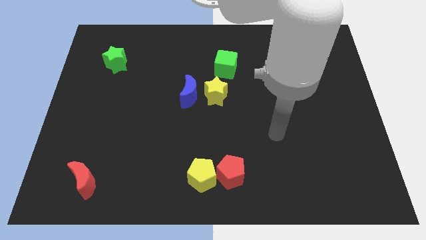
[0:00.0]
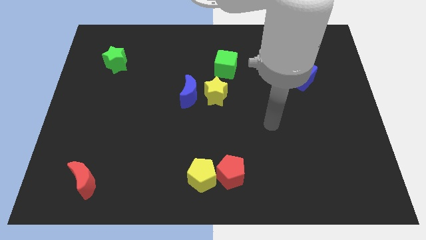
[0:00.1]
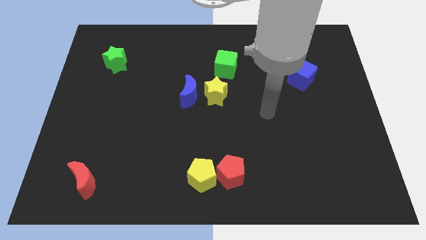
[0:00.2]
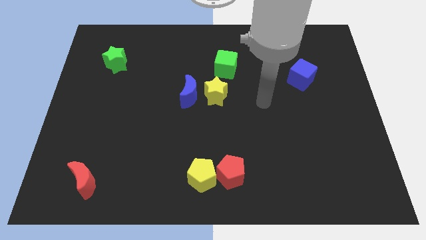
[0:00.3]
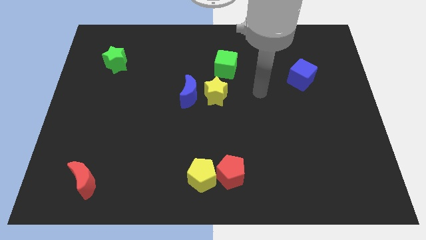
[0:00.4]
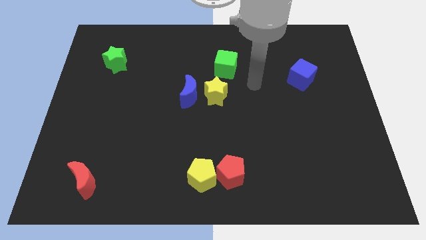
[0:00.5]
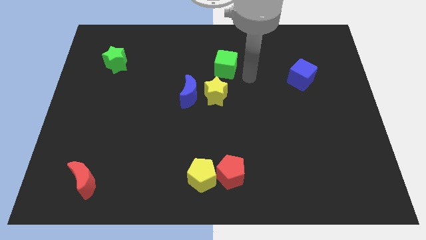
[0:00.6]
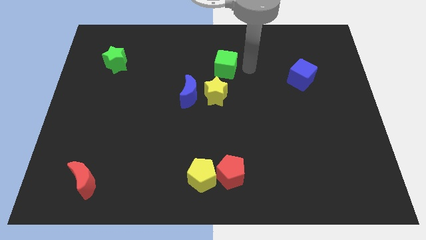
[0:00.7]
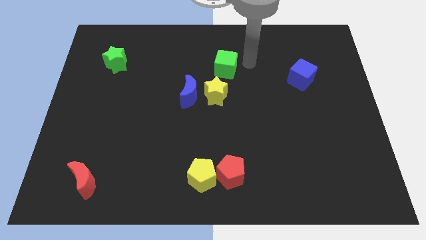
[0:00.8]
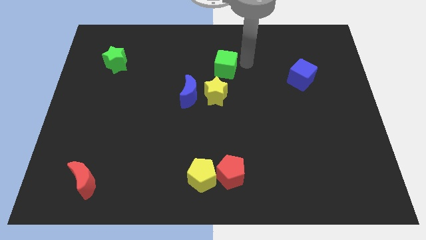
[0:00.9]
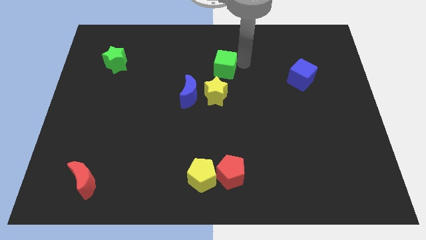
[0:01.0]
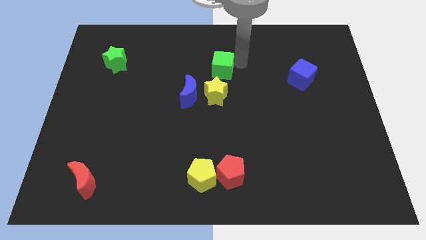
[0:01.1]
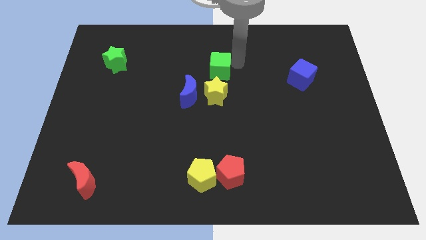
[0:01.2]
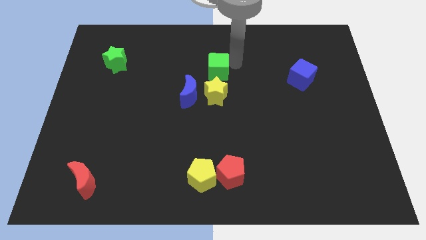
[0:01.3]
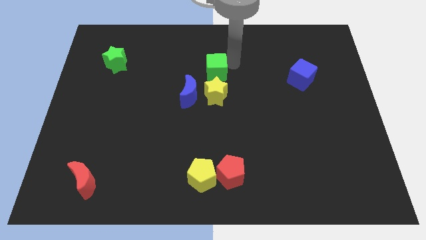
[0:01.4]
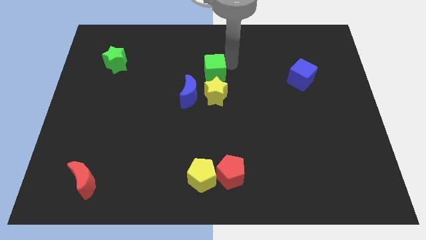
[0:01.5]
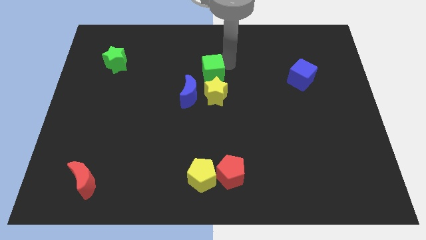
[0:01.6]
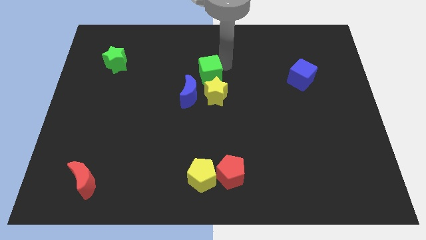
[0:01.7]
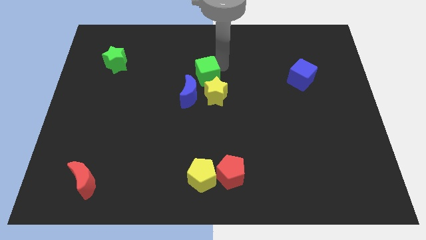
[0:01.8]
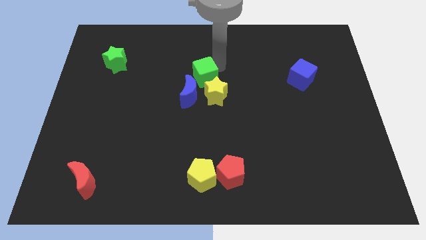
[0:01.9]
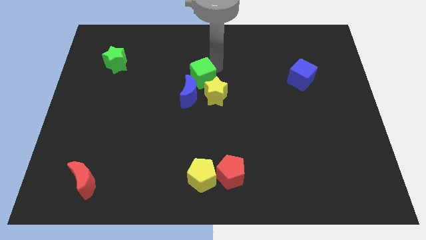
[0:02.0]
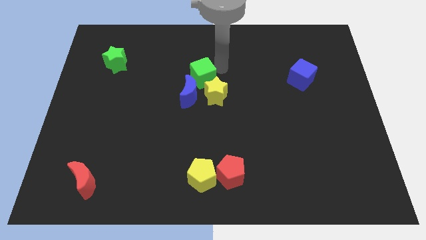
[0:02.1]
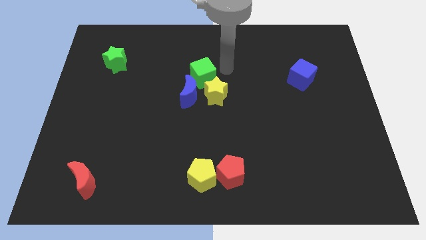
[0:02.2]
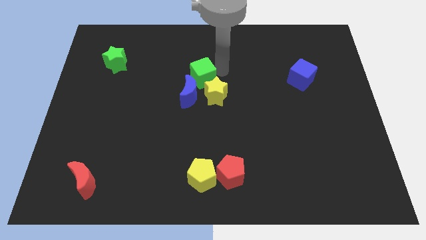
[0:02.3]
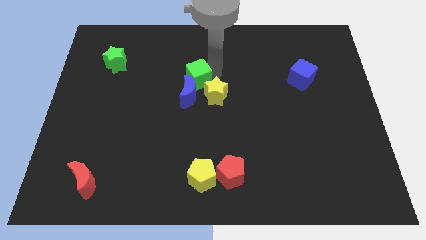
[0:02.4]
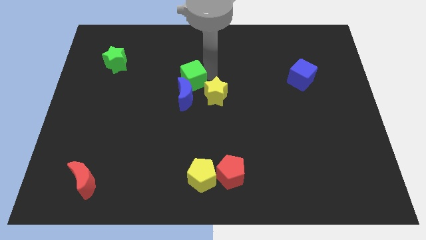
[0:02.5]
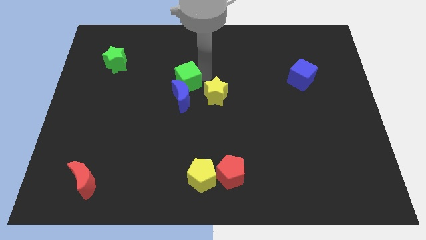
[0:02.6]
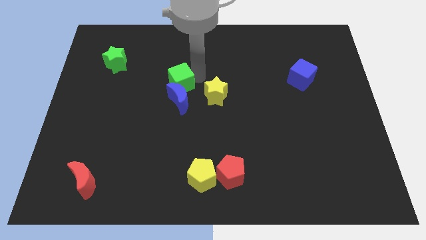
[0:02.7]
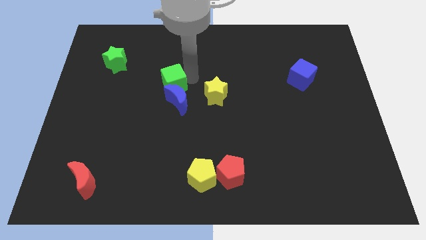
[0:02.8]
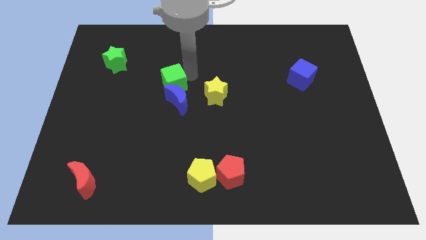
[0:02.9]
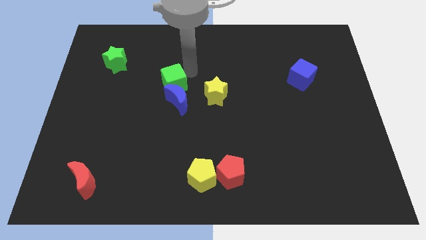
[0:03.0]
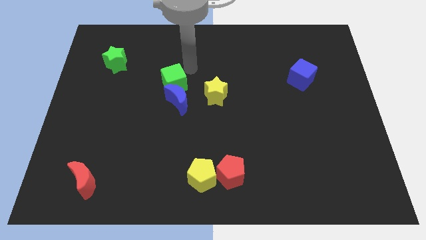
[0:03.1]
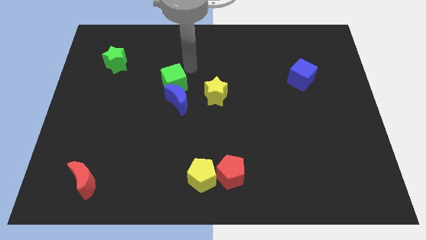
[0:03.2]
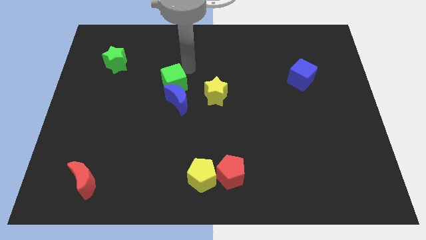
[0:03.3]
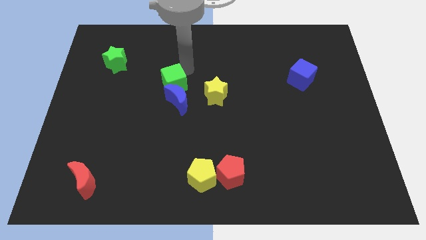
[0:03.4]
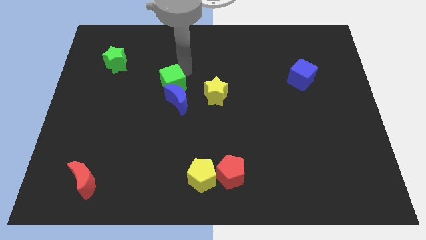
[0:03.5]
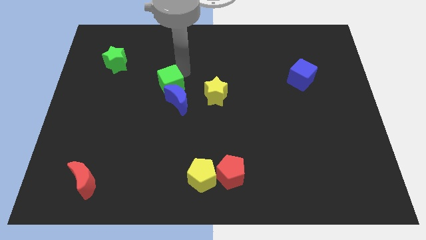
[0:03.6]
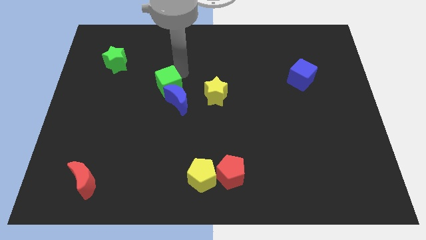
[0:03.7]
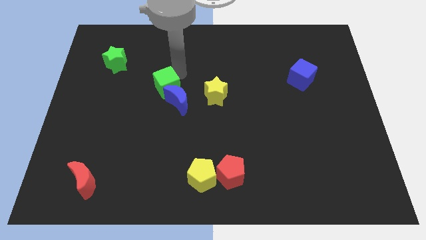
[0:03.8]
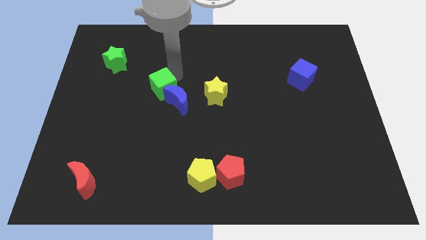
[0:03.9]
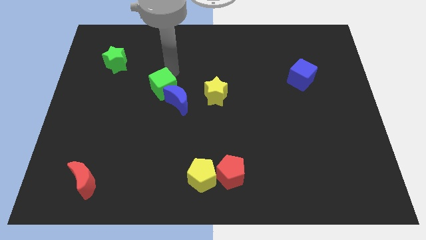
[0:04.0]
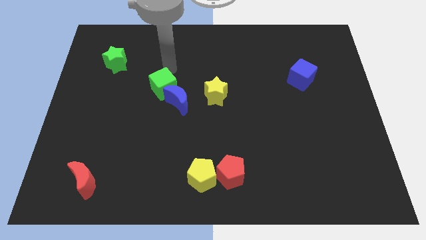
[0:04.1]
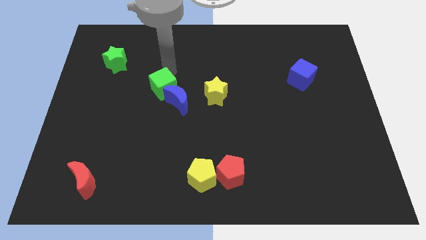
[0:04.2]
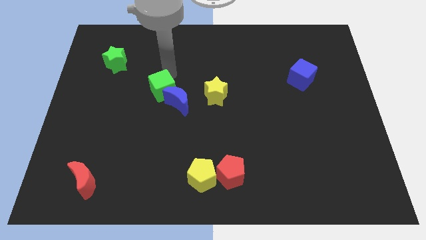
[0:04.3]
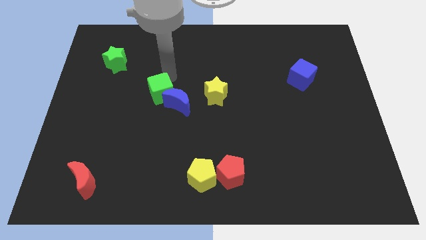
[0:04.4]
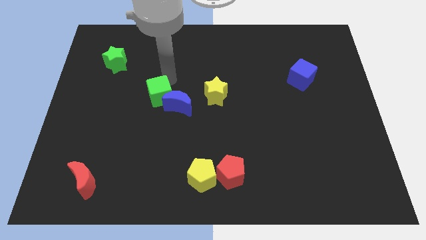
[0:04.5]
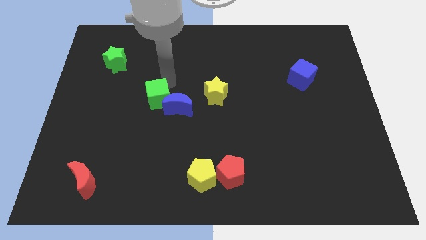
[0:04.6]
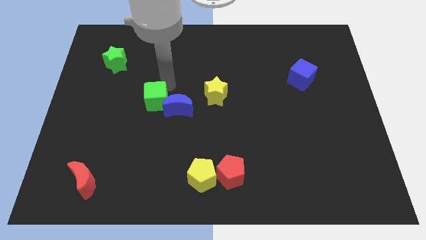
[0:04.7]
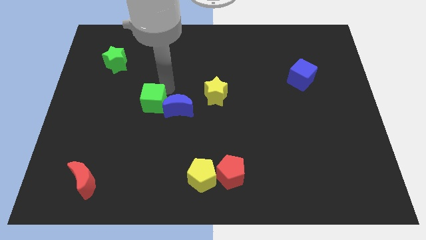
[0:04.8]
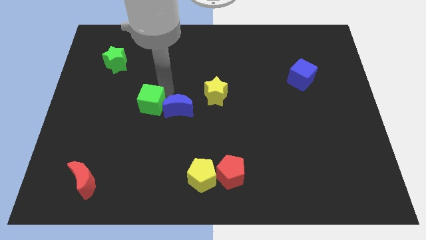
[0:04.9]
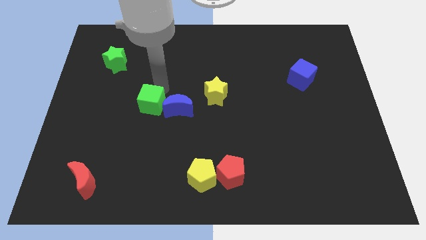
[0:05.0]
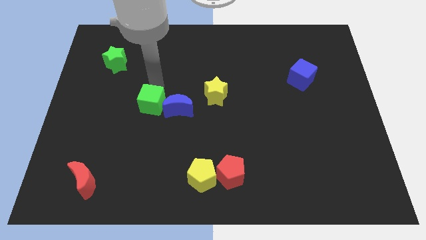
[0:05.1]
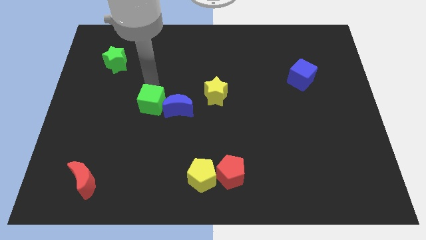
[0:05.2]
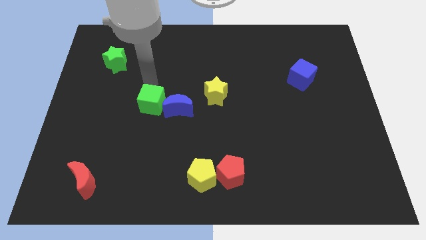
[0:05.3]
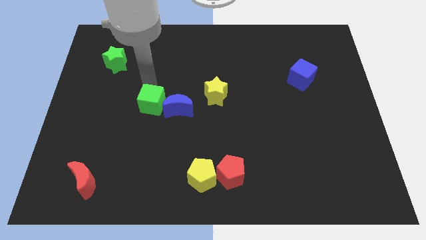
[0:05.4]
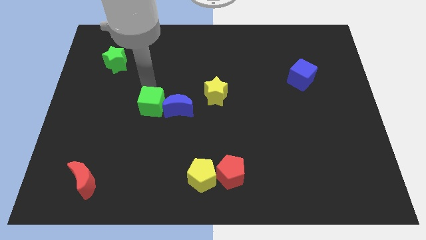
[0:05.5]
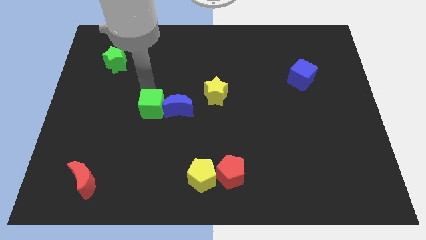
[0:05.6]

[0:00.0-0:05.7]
put the green cube to the bottom left side of the blue moon

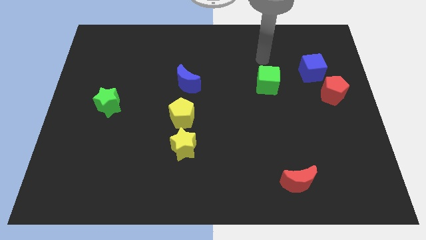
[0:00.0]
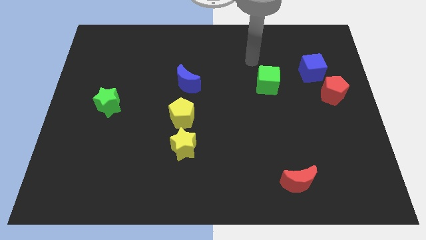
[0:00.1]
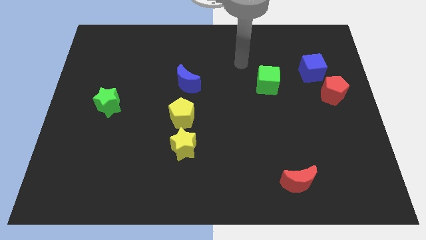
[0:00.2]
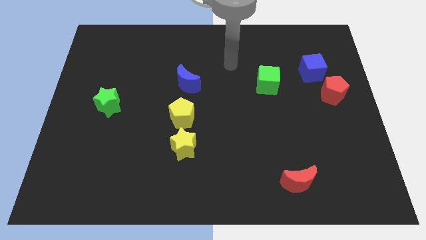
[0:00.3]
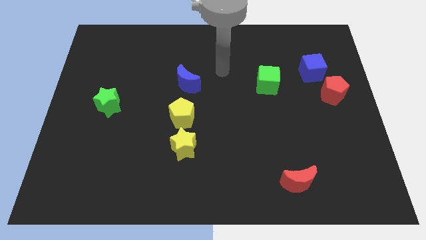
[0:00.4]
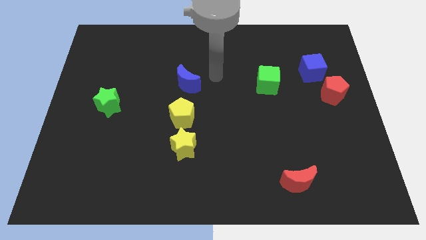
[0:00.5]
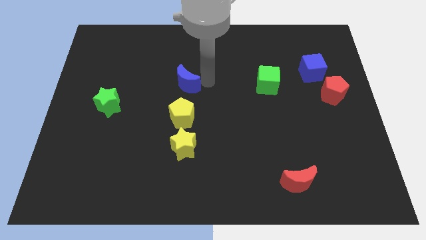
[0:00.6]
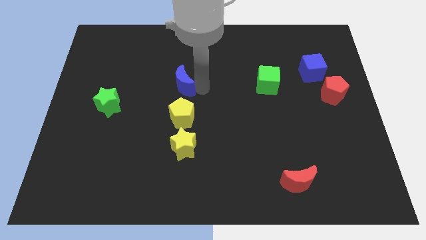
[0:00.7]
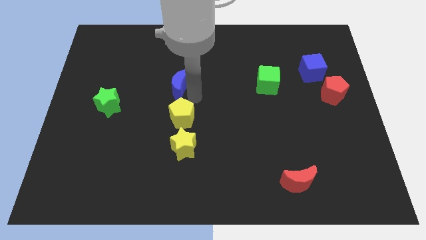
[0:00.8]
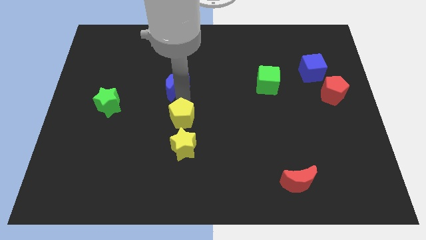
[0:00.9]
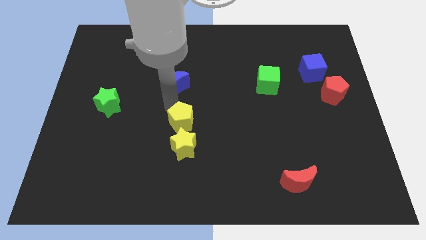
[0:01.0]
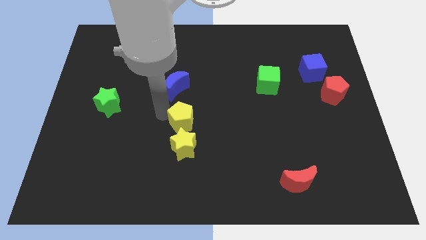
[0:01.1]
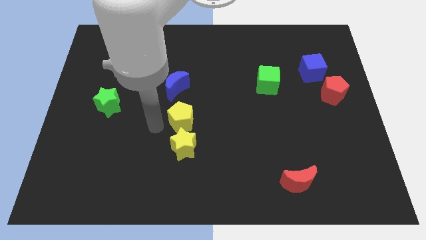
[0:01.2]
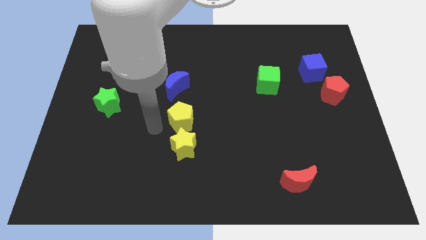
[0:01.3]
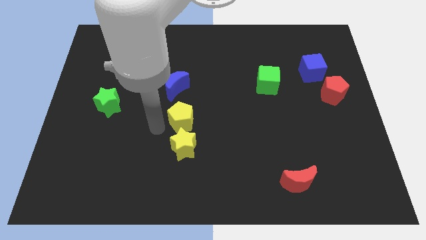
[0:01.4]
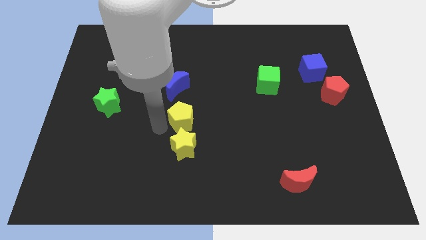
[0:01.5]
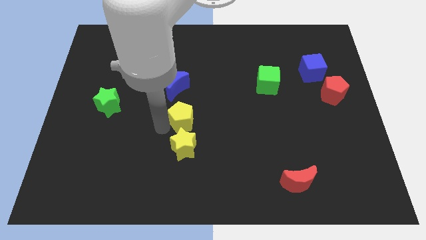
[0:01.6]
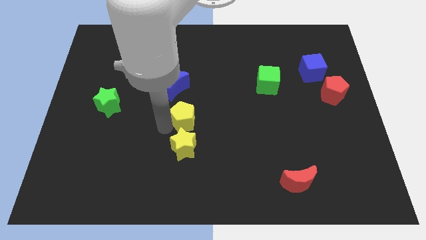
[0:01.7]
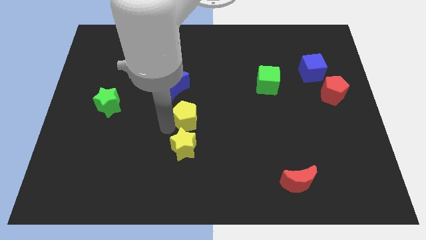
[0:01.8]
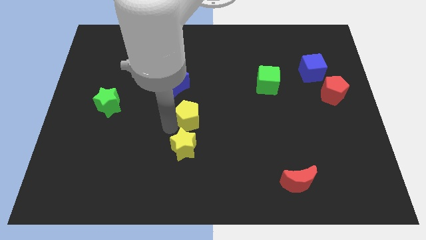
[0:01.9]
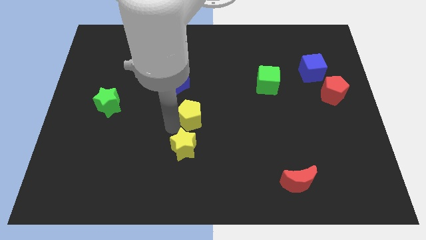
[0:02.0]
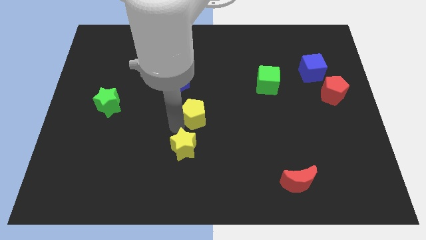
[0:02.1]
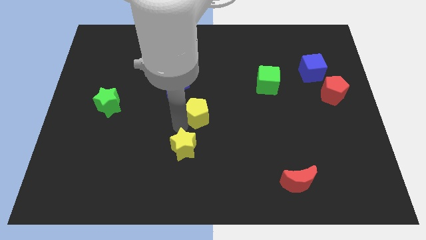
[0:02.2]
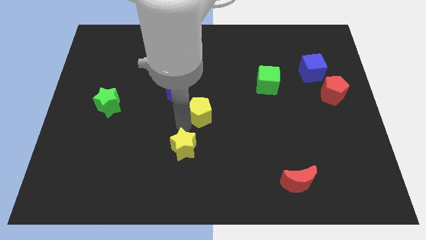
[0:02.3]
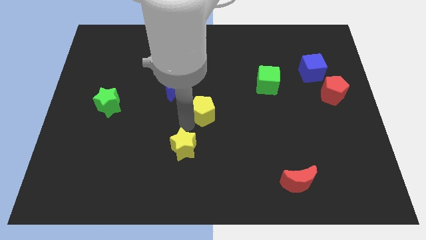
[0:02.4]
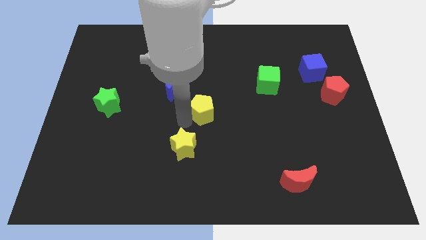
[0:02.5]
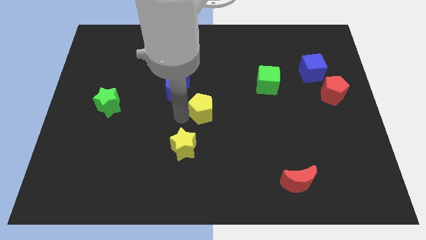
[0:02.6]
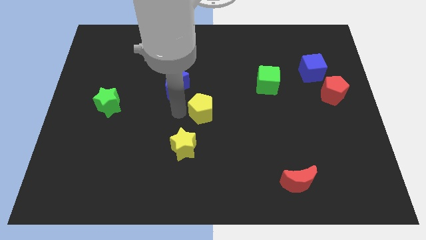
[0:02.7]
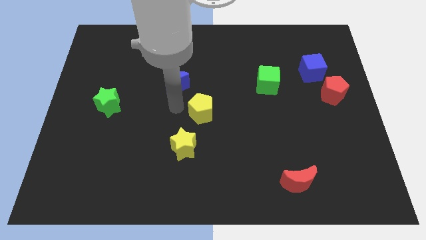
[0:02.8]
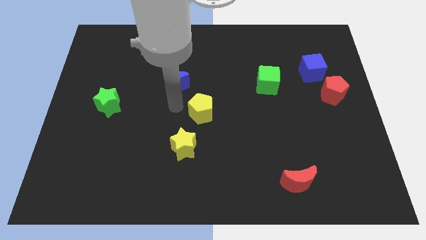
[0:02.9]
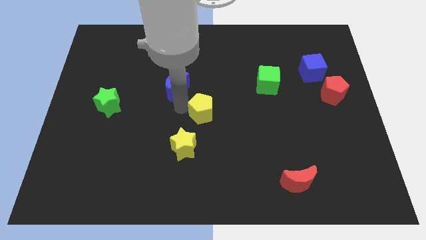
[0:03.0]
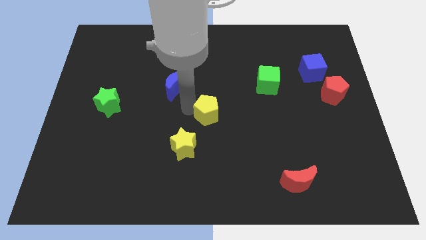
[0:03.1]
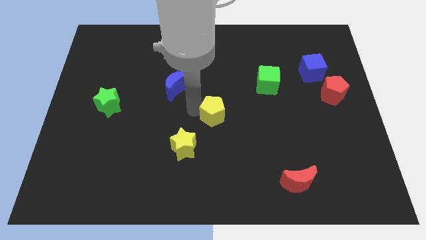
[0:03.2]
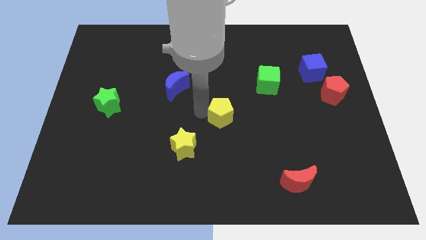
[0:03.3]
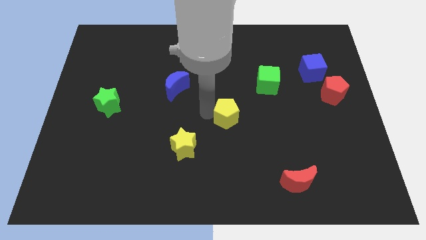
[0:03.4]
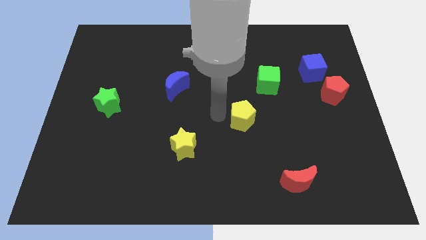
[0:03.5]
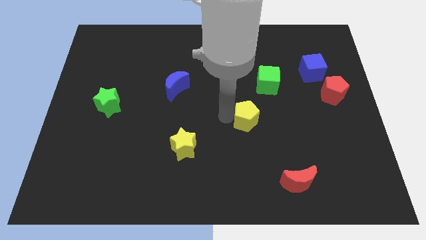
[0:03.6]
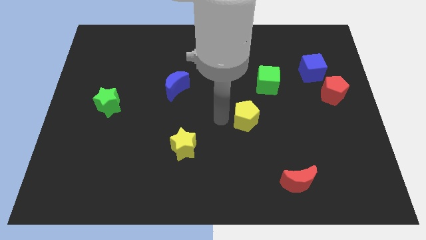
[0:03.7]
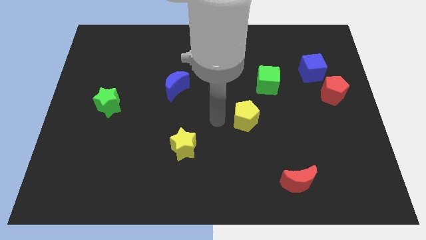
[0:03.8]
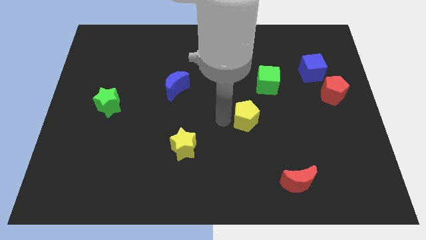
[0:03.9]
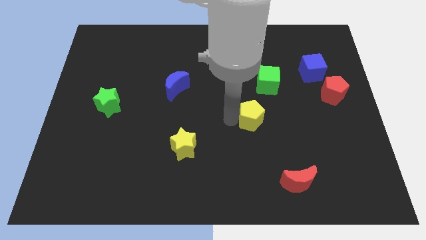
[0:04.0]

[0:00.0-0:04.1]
push the yellow pentagon to the bottom side of the green cube
